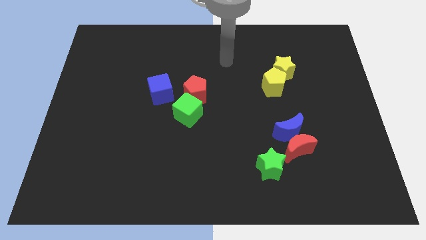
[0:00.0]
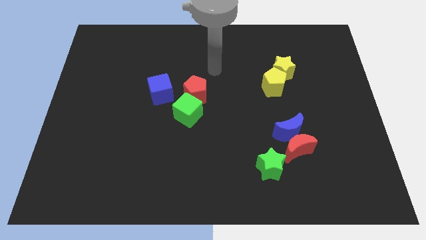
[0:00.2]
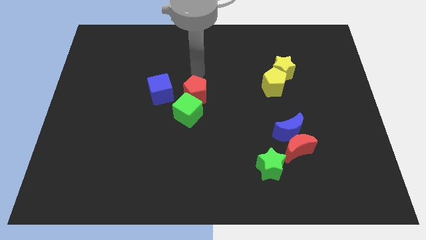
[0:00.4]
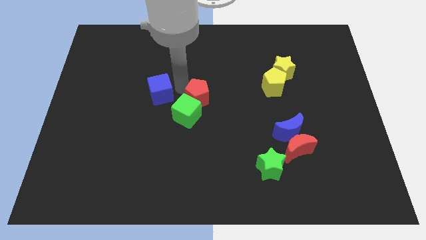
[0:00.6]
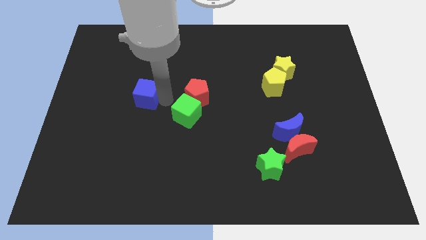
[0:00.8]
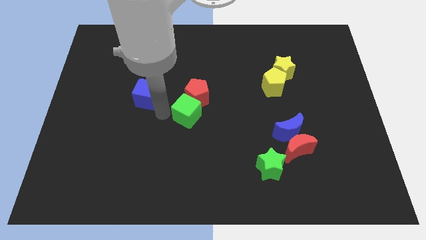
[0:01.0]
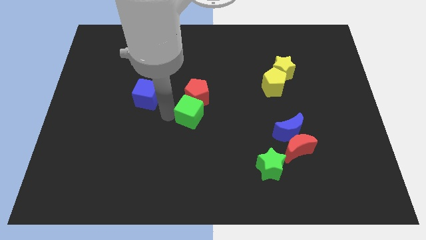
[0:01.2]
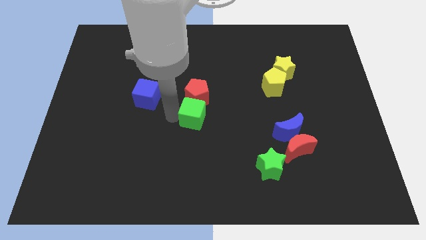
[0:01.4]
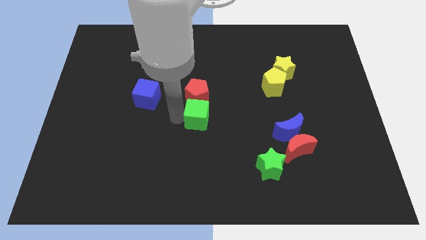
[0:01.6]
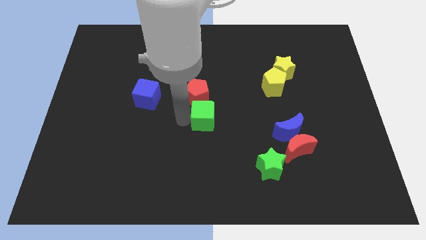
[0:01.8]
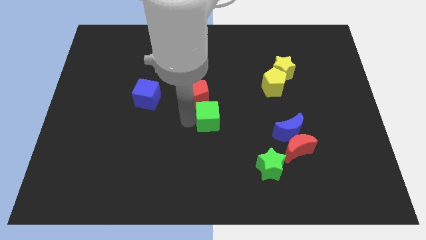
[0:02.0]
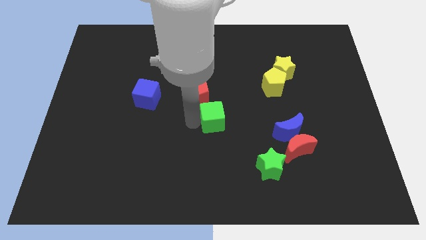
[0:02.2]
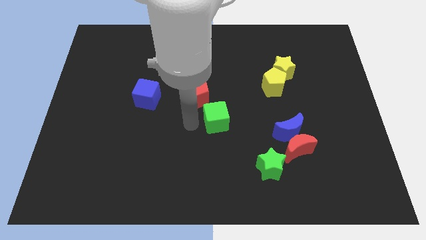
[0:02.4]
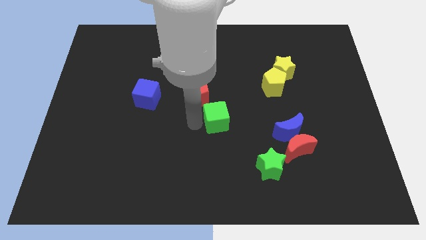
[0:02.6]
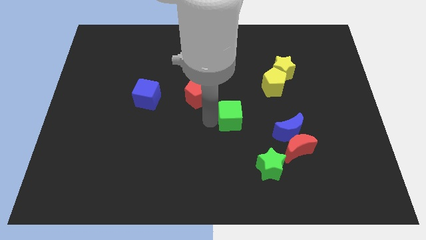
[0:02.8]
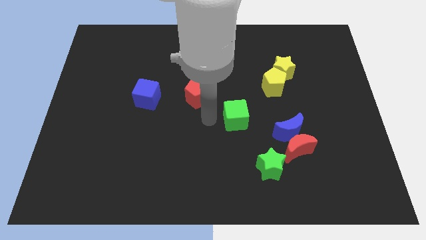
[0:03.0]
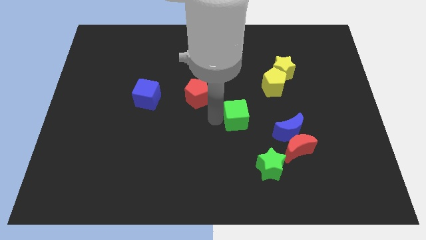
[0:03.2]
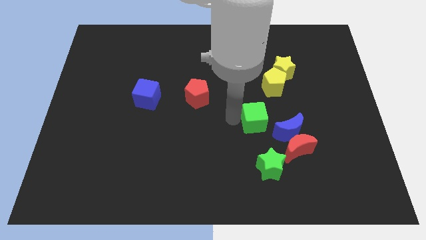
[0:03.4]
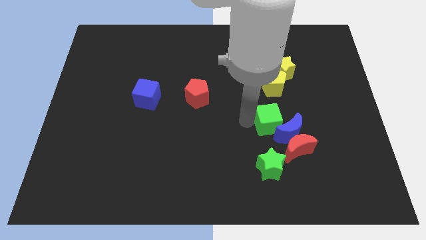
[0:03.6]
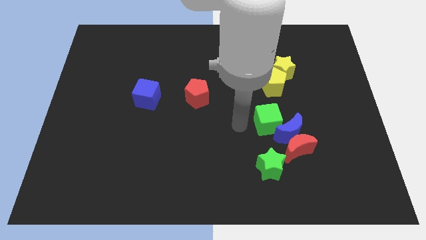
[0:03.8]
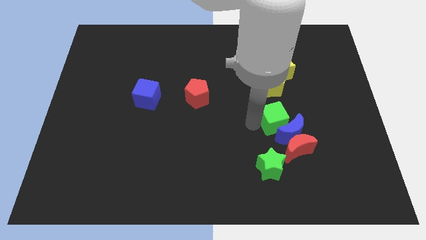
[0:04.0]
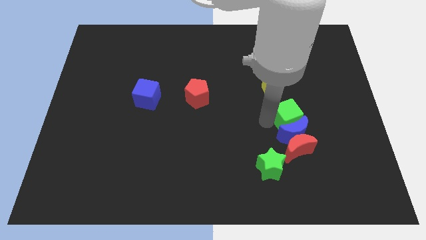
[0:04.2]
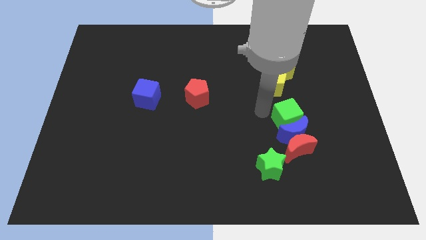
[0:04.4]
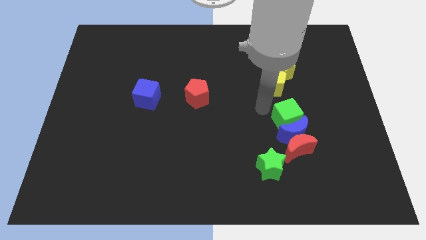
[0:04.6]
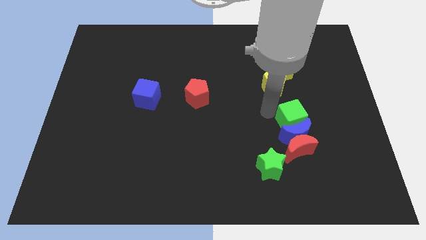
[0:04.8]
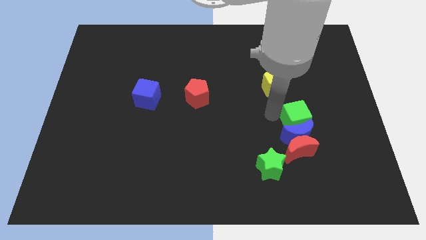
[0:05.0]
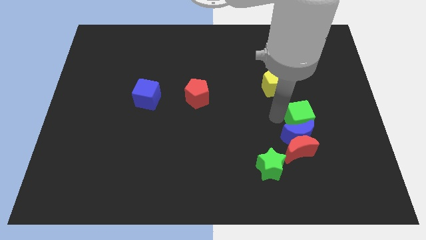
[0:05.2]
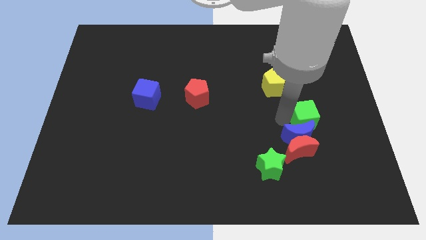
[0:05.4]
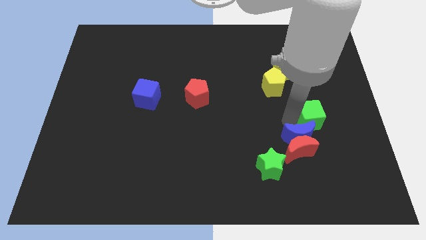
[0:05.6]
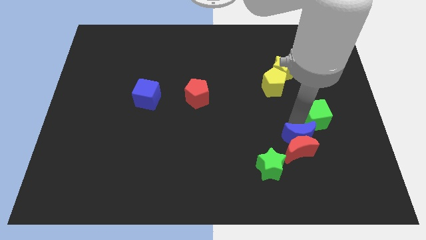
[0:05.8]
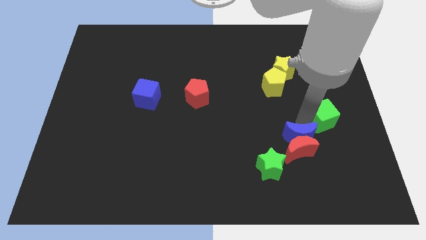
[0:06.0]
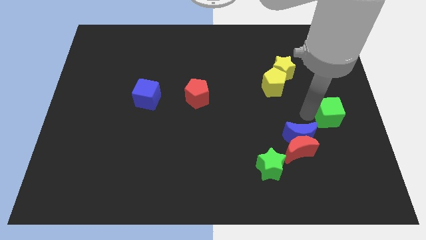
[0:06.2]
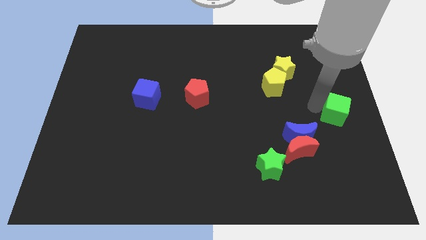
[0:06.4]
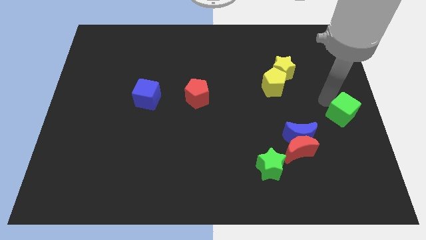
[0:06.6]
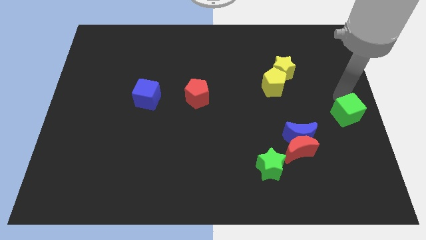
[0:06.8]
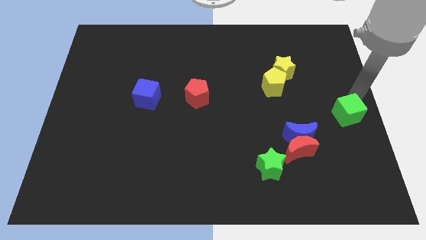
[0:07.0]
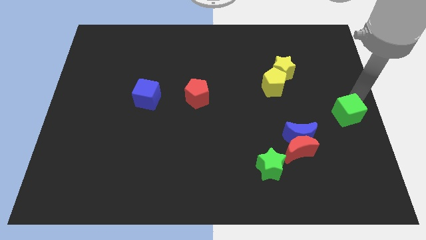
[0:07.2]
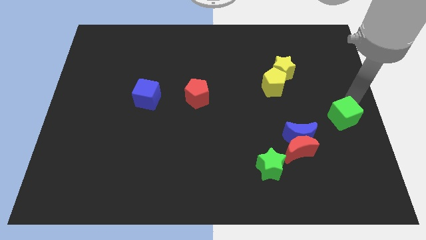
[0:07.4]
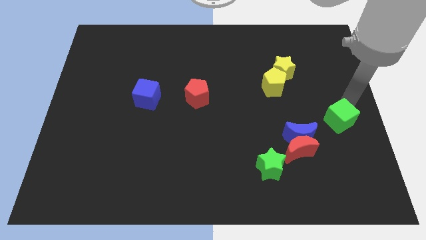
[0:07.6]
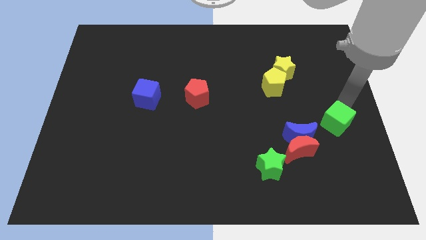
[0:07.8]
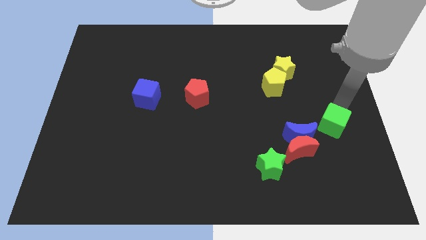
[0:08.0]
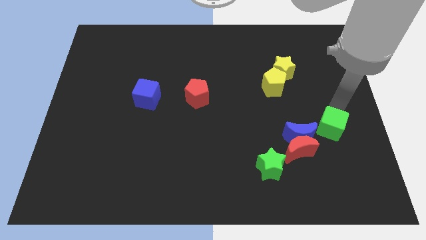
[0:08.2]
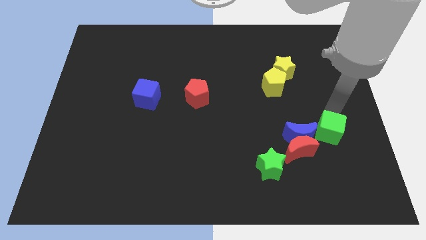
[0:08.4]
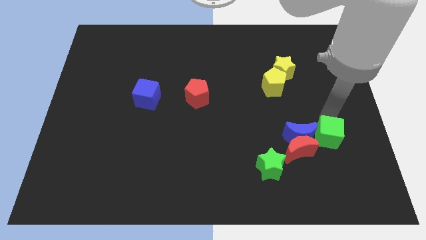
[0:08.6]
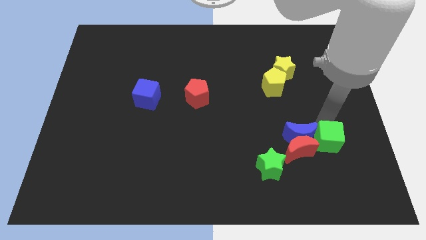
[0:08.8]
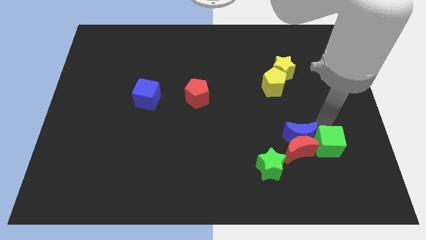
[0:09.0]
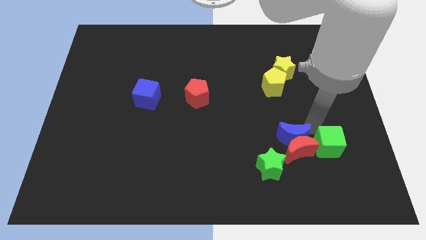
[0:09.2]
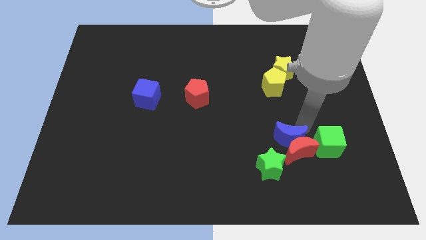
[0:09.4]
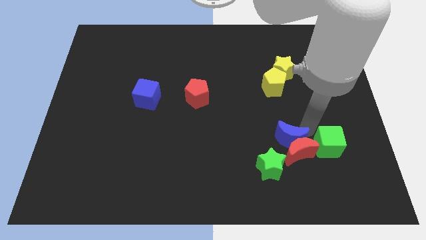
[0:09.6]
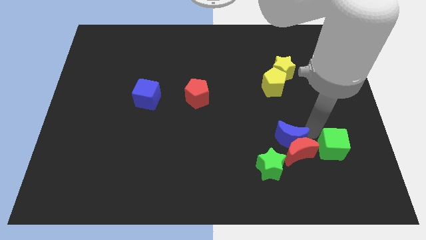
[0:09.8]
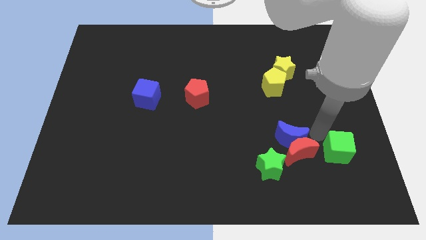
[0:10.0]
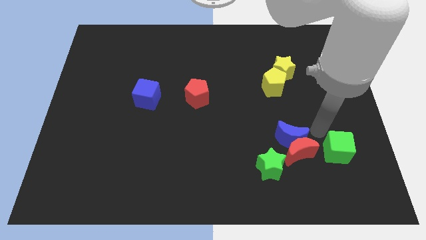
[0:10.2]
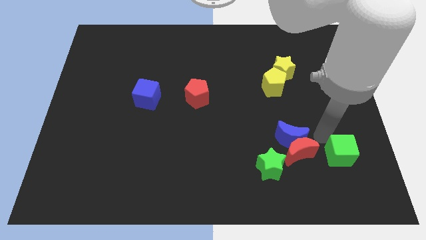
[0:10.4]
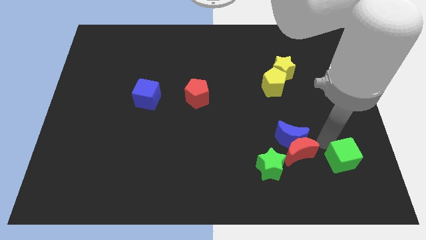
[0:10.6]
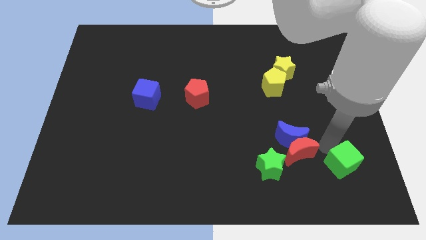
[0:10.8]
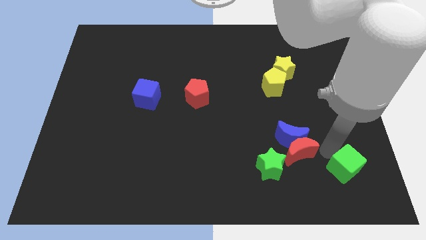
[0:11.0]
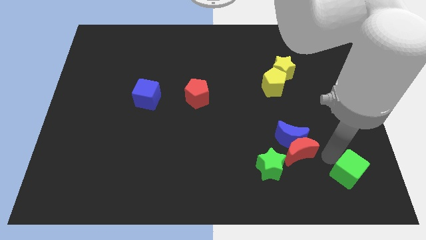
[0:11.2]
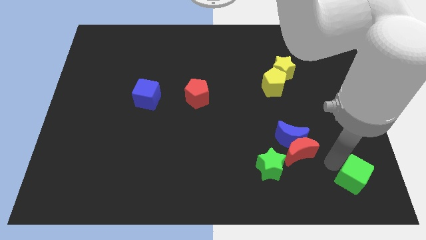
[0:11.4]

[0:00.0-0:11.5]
move the green cube to the bottom right
